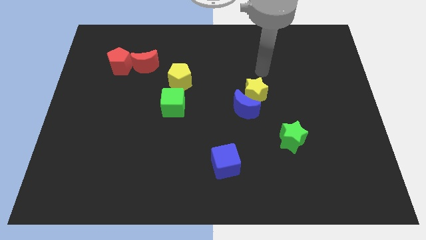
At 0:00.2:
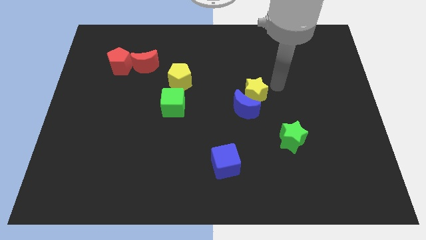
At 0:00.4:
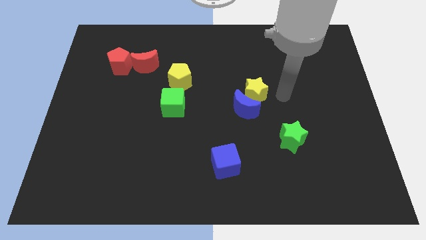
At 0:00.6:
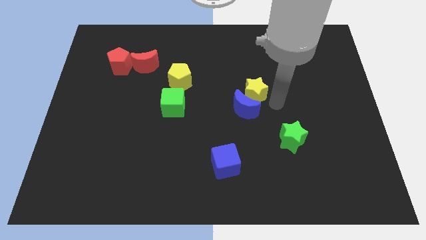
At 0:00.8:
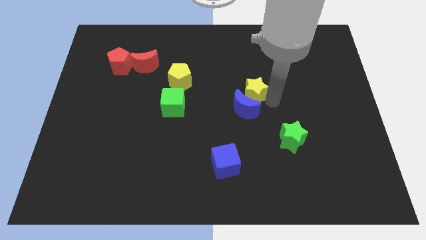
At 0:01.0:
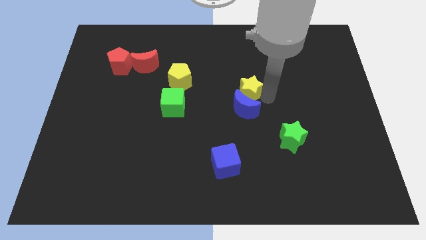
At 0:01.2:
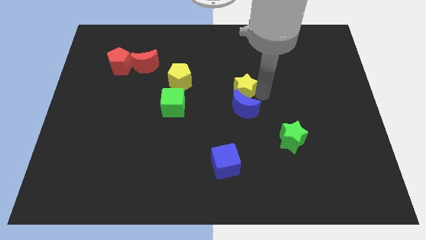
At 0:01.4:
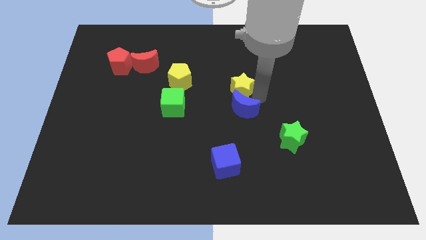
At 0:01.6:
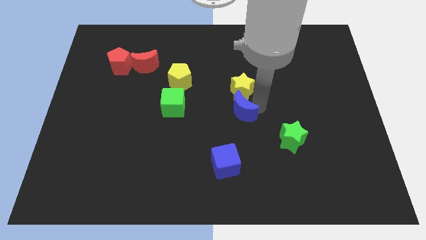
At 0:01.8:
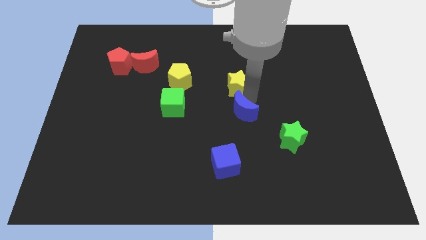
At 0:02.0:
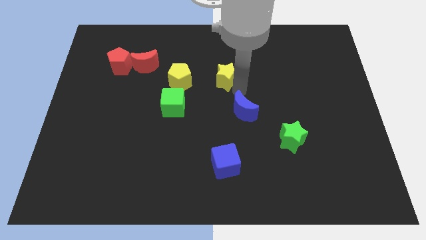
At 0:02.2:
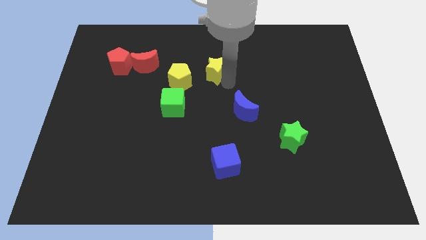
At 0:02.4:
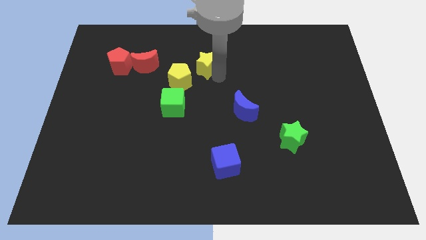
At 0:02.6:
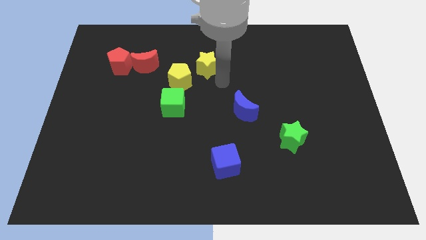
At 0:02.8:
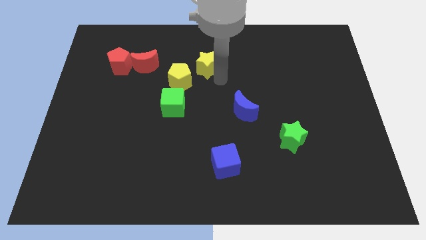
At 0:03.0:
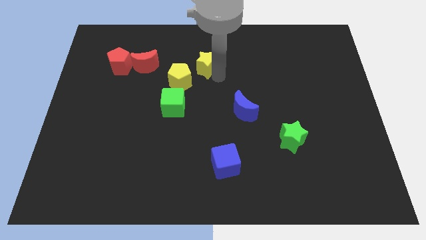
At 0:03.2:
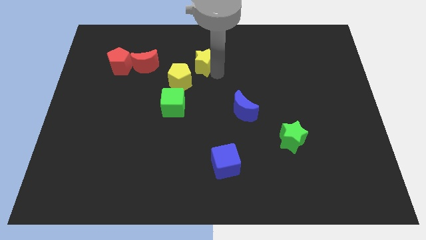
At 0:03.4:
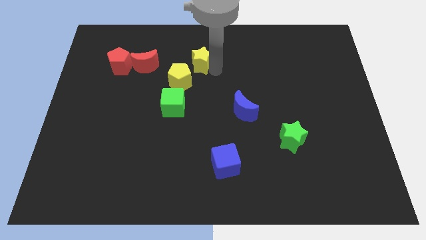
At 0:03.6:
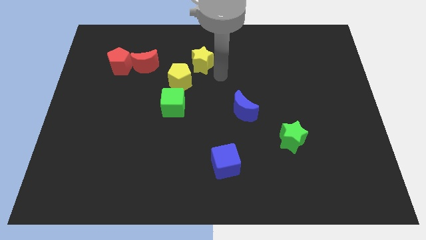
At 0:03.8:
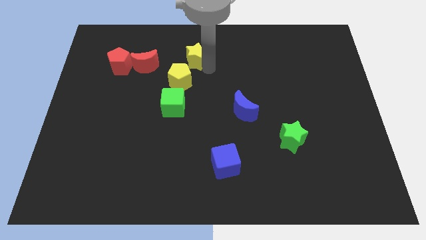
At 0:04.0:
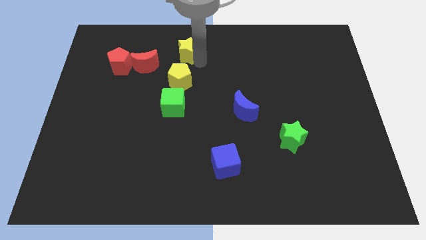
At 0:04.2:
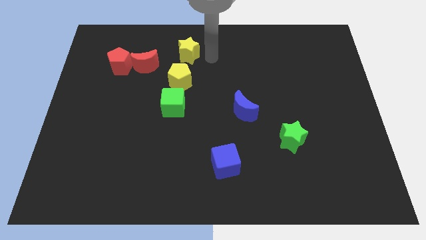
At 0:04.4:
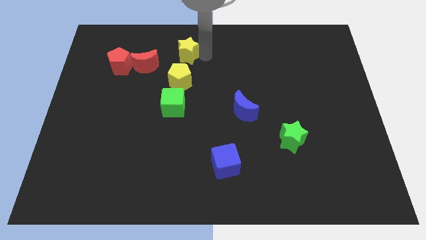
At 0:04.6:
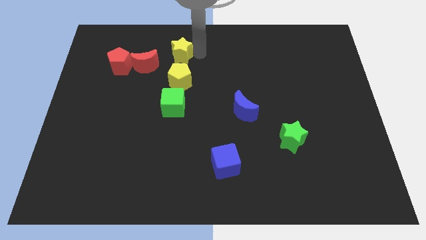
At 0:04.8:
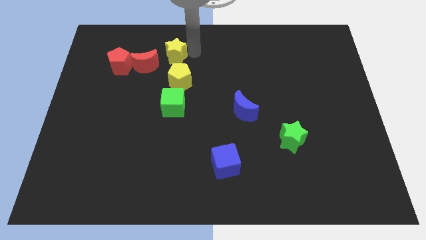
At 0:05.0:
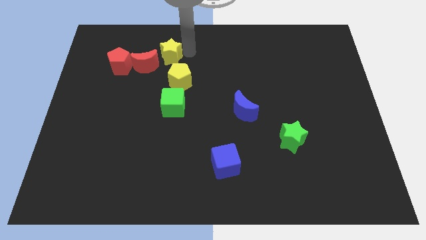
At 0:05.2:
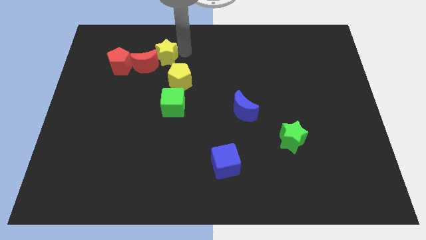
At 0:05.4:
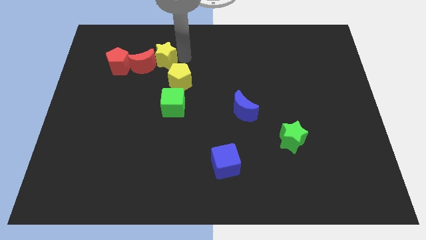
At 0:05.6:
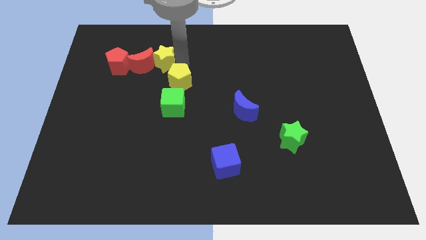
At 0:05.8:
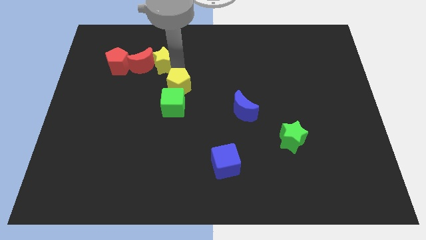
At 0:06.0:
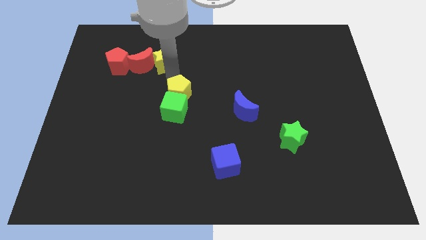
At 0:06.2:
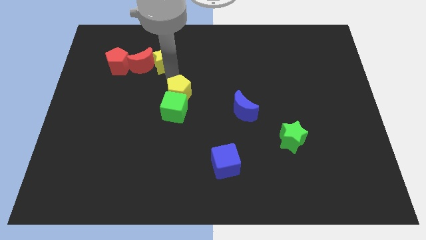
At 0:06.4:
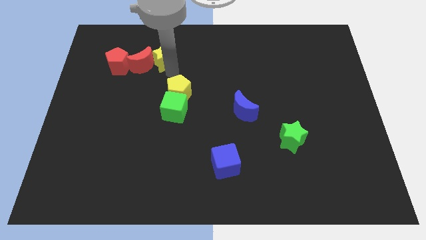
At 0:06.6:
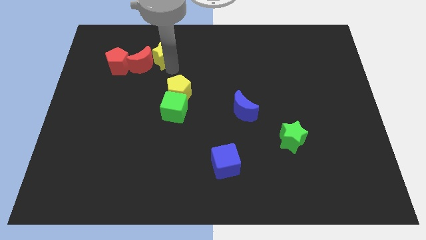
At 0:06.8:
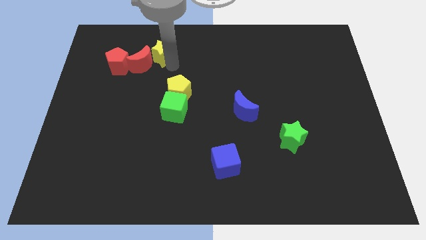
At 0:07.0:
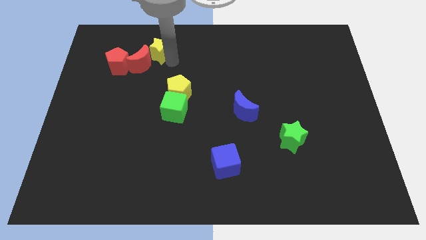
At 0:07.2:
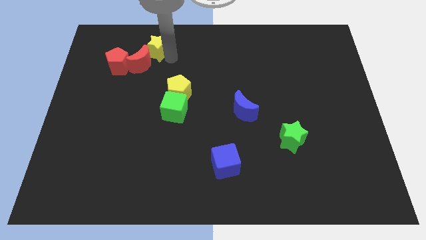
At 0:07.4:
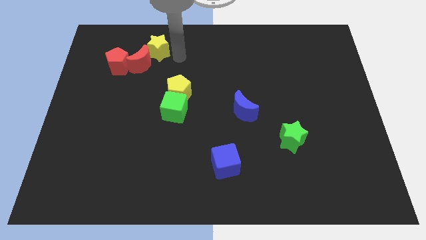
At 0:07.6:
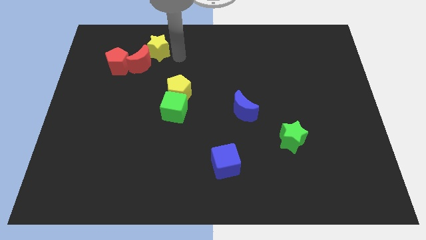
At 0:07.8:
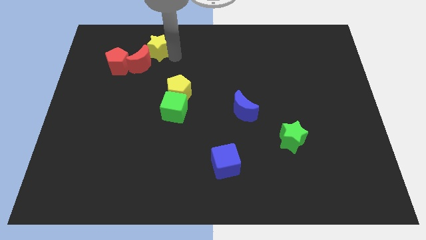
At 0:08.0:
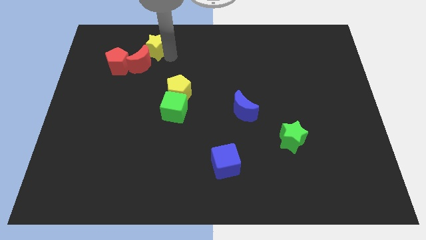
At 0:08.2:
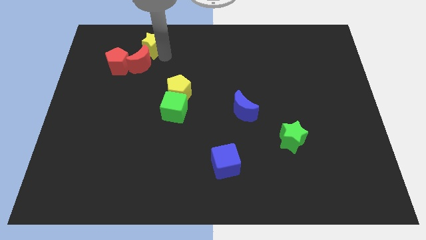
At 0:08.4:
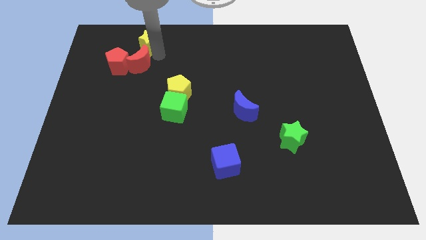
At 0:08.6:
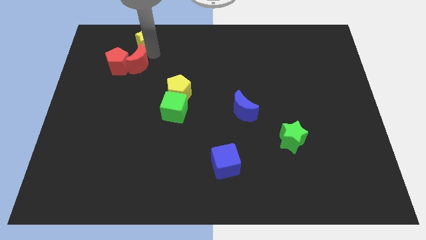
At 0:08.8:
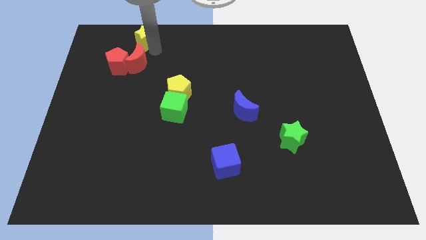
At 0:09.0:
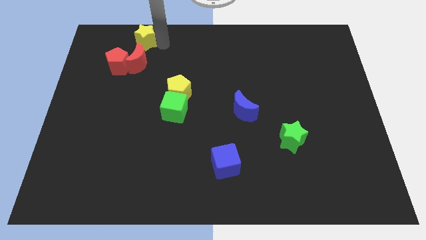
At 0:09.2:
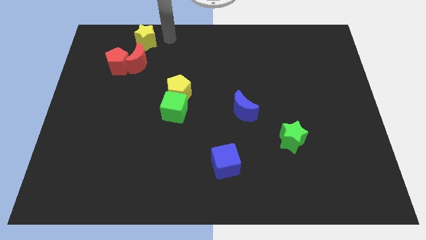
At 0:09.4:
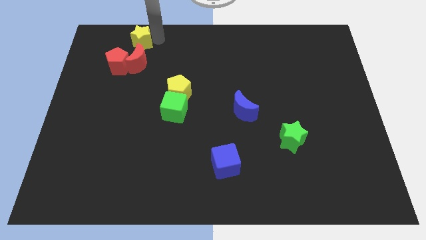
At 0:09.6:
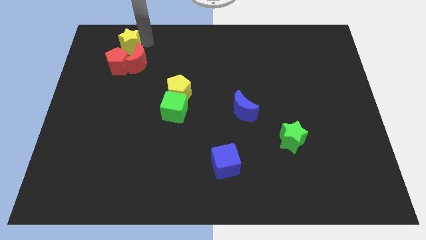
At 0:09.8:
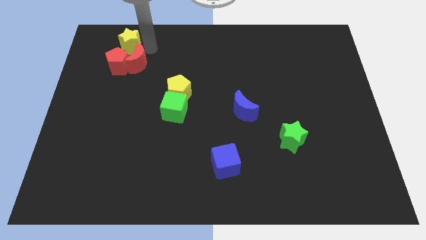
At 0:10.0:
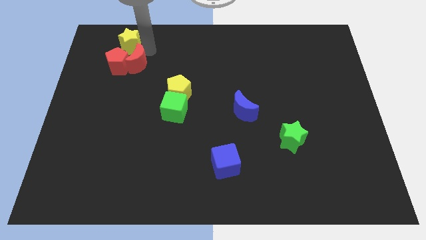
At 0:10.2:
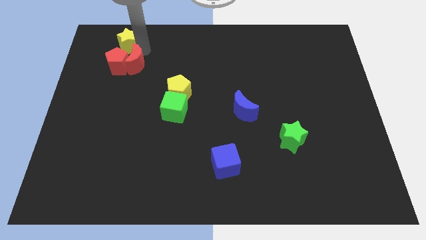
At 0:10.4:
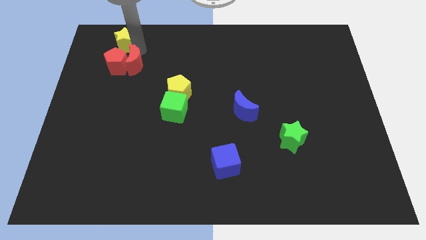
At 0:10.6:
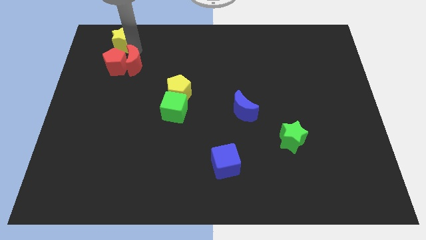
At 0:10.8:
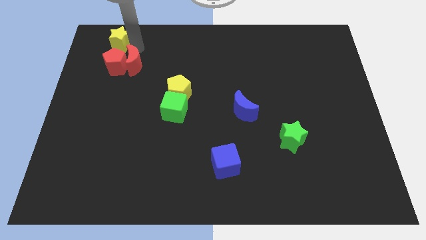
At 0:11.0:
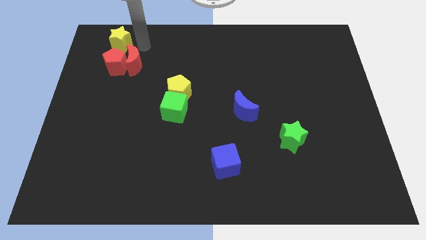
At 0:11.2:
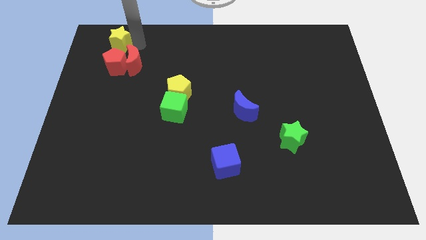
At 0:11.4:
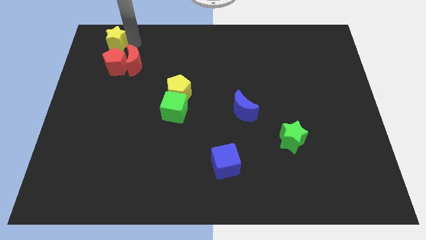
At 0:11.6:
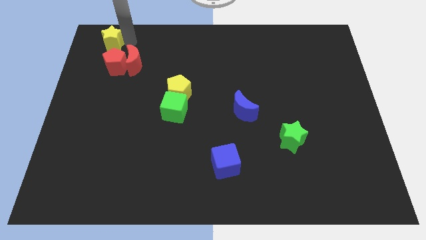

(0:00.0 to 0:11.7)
slide the yellow star to the top left

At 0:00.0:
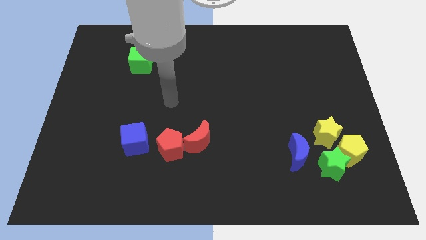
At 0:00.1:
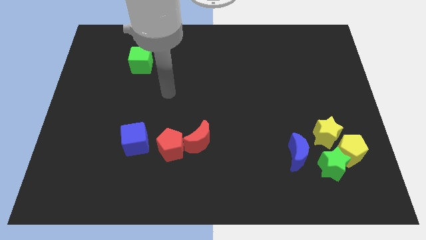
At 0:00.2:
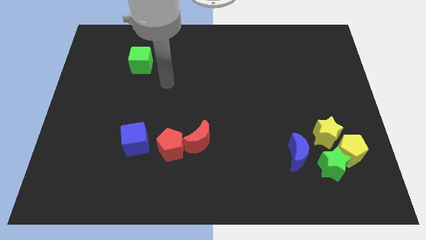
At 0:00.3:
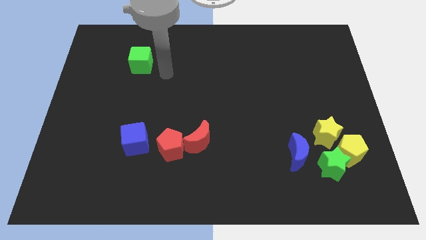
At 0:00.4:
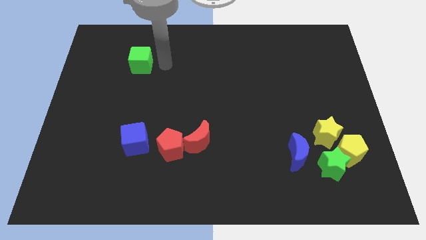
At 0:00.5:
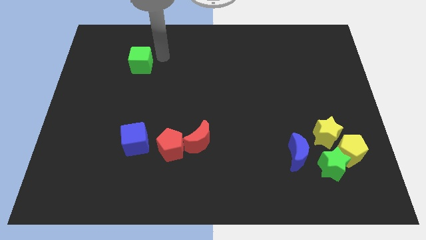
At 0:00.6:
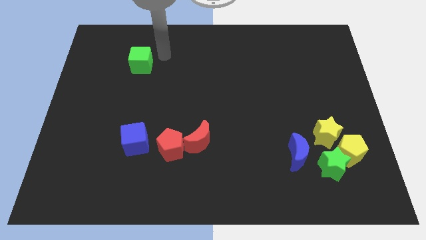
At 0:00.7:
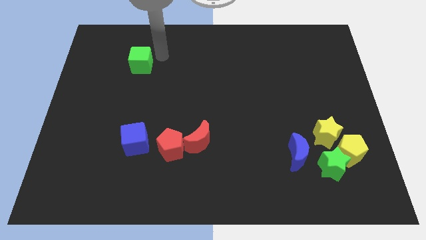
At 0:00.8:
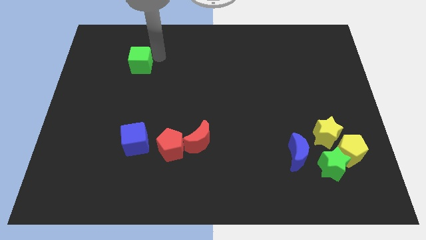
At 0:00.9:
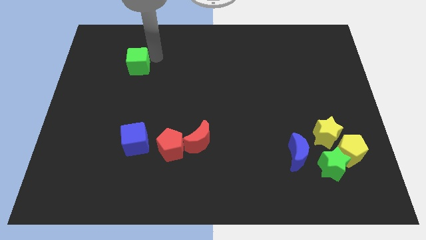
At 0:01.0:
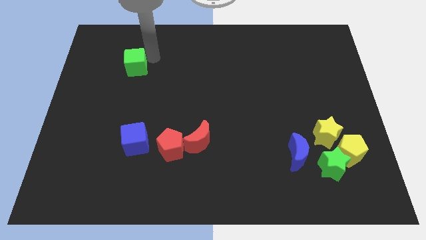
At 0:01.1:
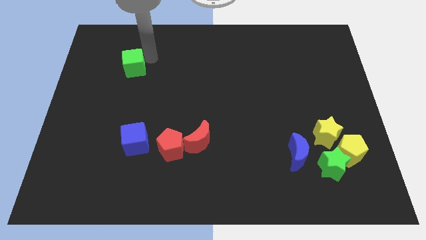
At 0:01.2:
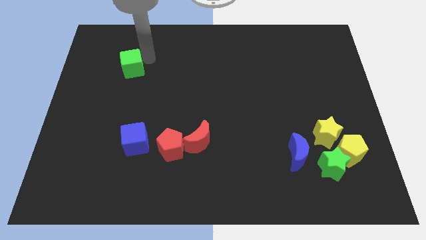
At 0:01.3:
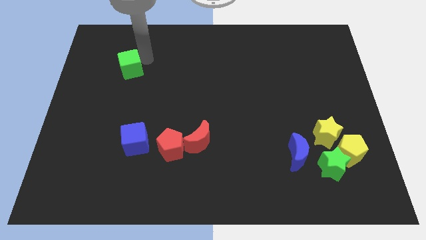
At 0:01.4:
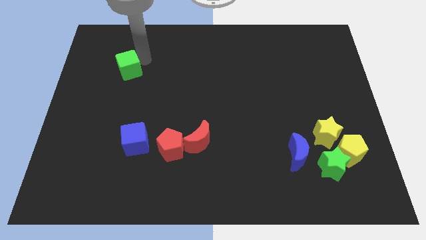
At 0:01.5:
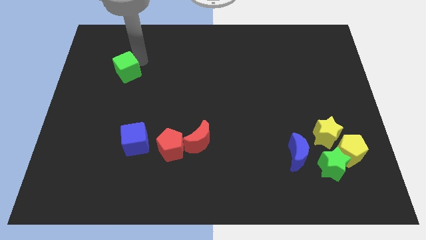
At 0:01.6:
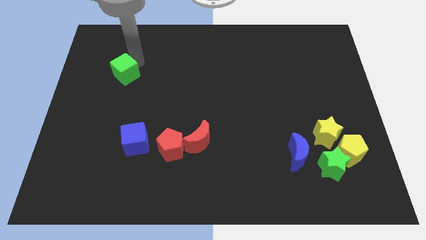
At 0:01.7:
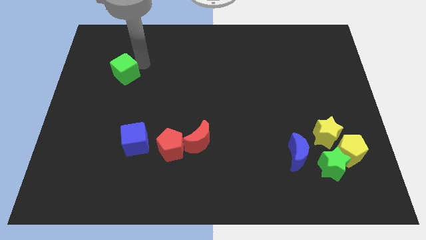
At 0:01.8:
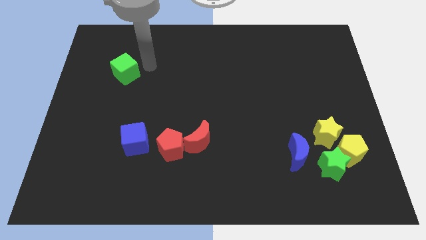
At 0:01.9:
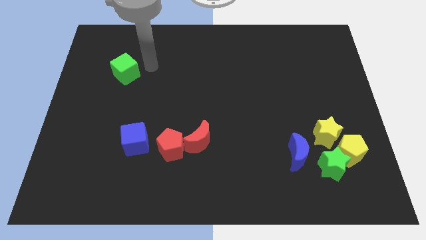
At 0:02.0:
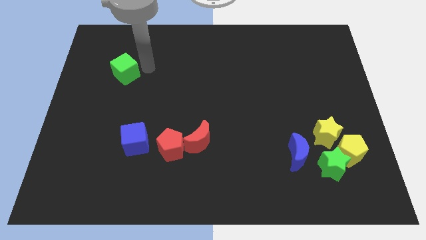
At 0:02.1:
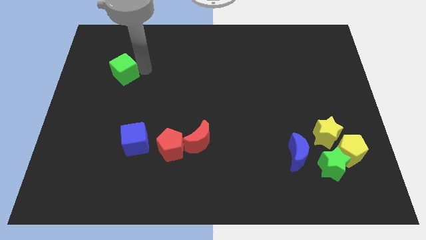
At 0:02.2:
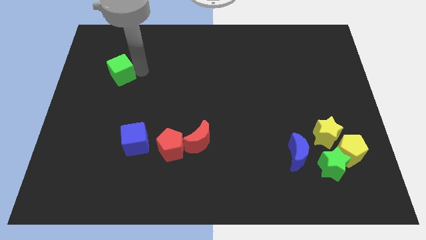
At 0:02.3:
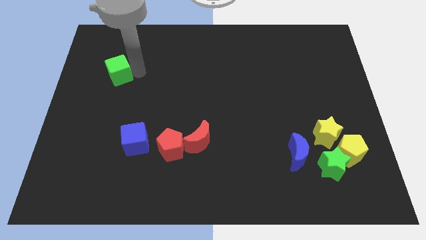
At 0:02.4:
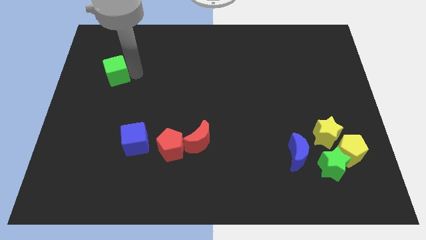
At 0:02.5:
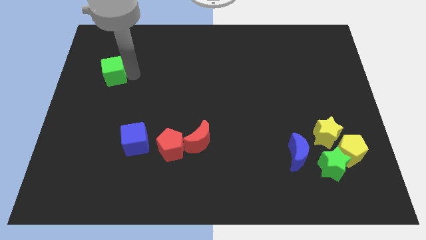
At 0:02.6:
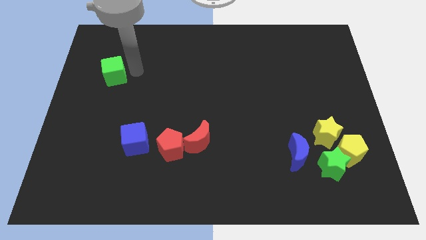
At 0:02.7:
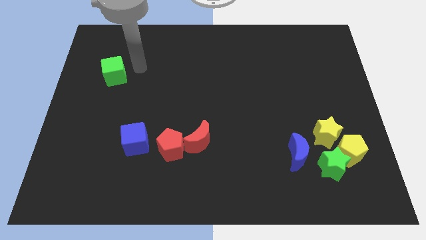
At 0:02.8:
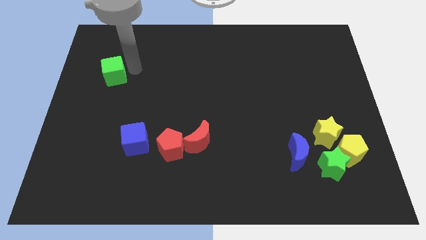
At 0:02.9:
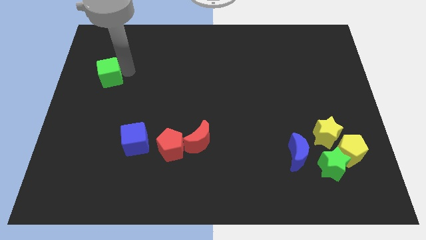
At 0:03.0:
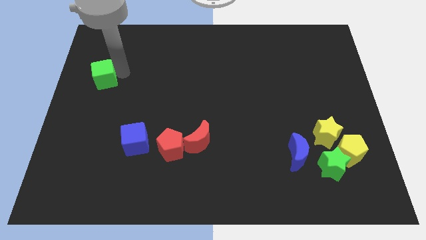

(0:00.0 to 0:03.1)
move the green cube to the left side
